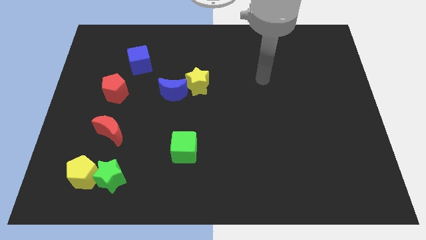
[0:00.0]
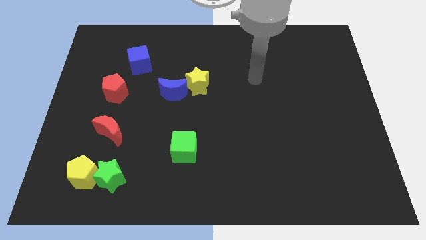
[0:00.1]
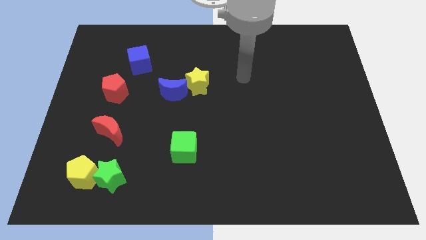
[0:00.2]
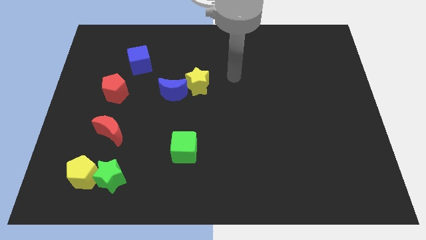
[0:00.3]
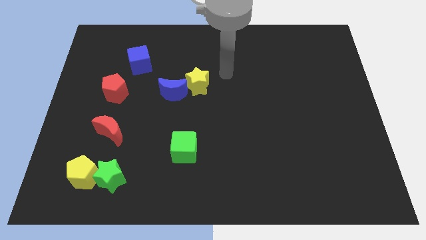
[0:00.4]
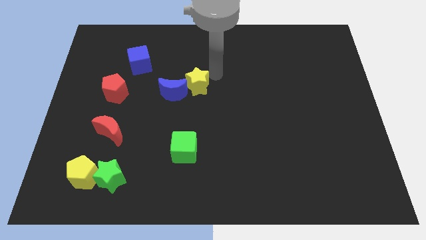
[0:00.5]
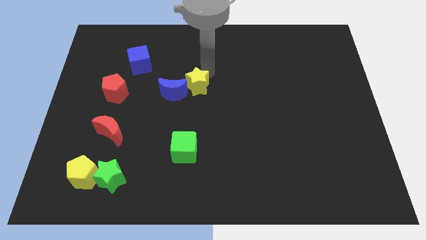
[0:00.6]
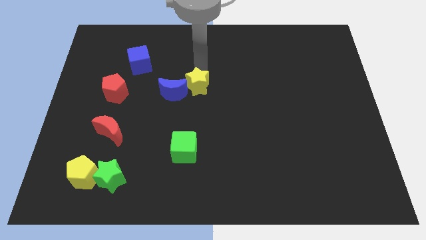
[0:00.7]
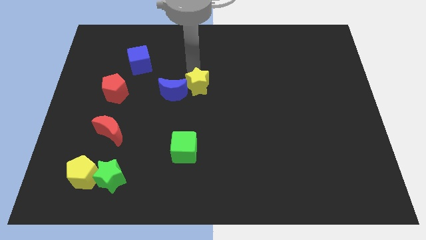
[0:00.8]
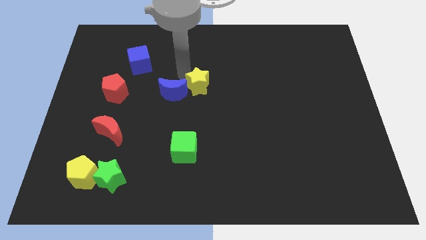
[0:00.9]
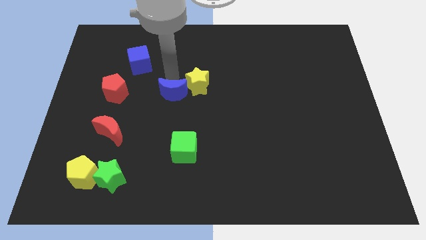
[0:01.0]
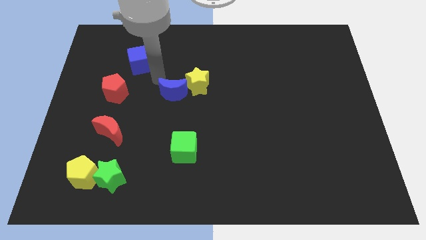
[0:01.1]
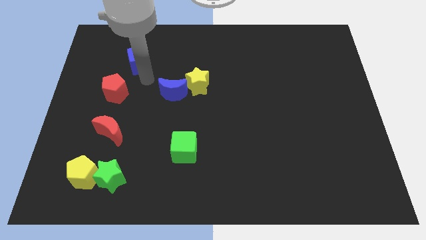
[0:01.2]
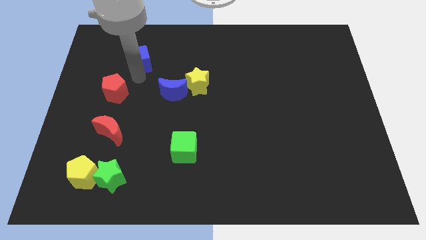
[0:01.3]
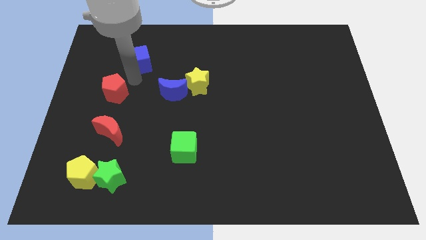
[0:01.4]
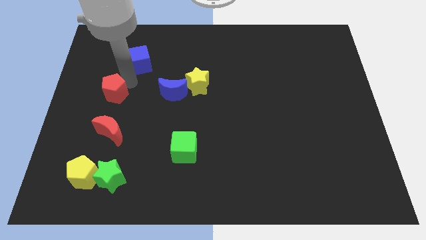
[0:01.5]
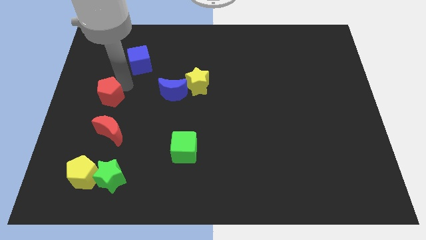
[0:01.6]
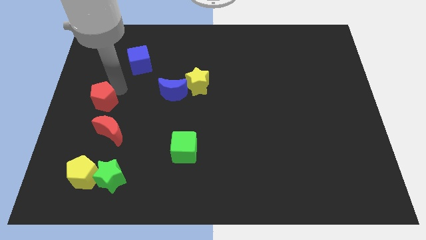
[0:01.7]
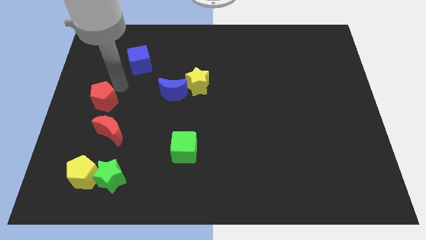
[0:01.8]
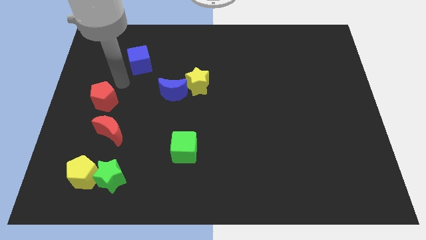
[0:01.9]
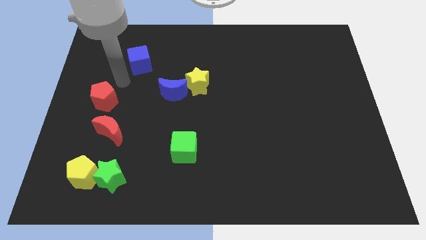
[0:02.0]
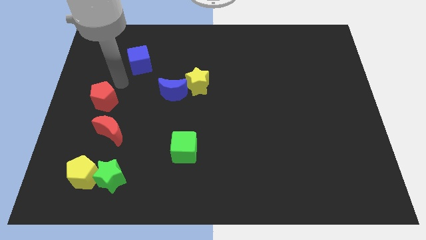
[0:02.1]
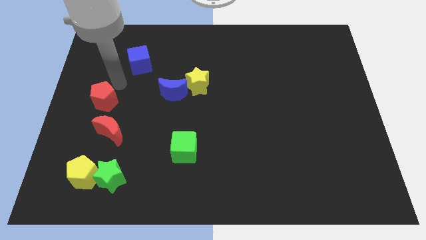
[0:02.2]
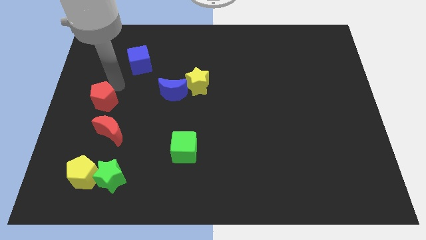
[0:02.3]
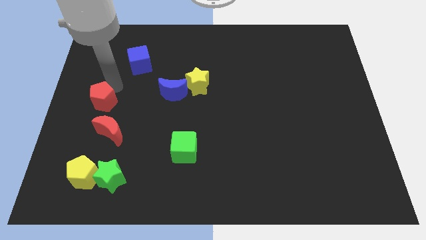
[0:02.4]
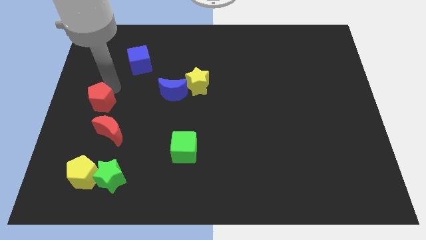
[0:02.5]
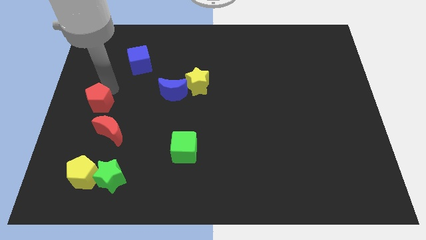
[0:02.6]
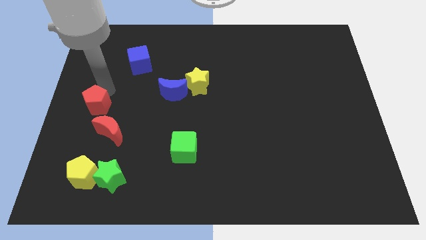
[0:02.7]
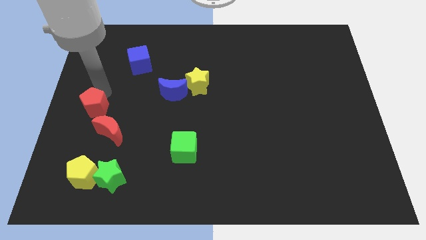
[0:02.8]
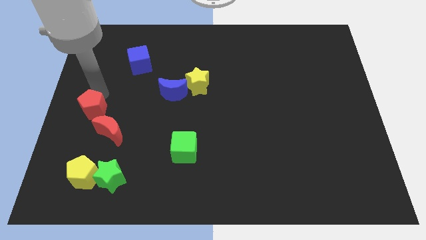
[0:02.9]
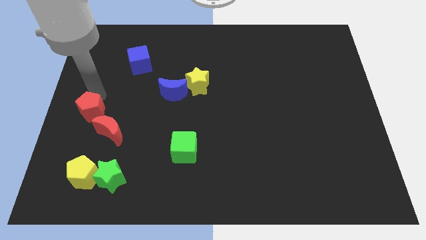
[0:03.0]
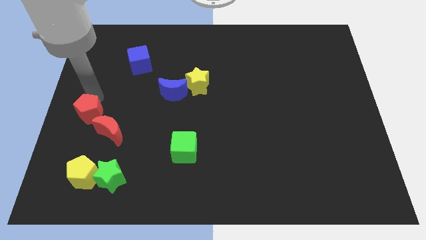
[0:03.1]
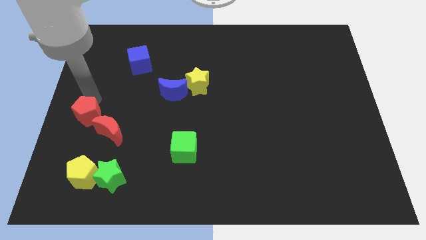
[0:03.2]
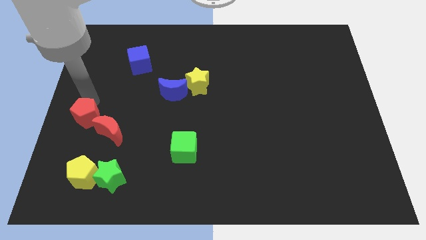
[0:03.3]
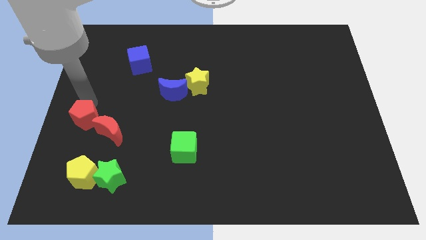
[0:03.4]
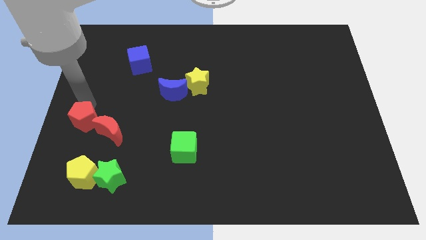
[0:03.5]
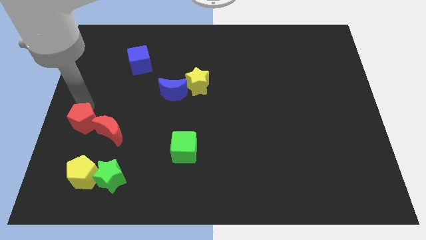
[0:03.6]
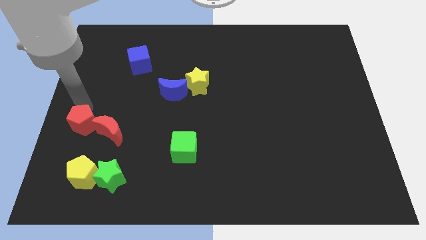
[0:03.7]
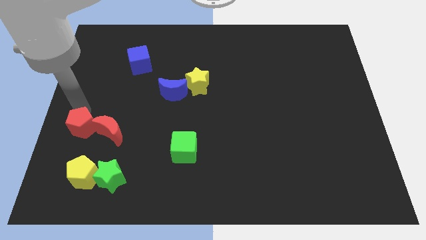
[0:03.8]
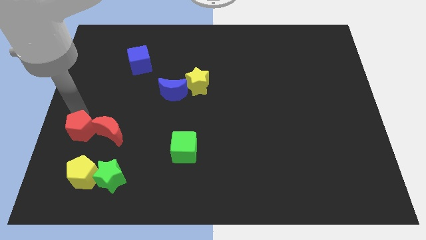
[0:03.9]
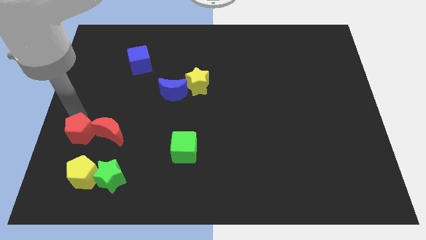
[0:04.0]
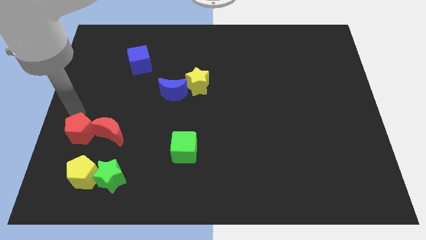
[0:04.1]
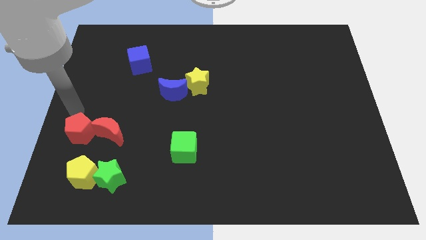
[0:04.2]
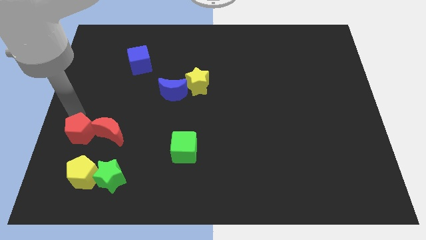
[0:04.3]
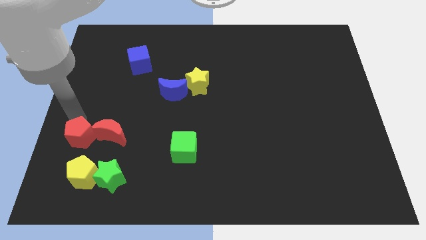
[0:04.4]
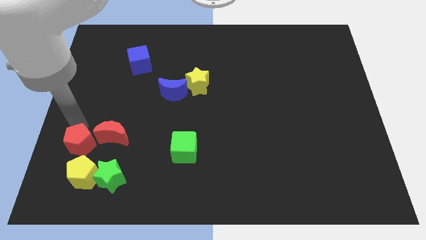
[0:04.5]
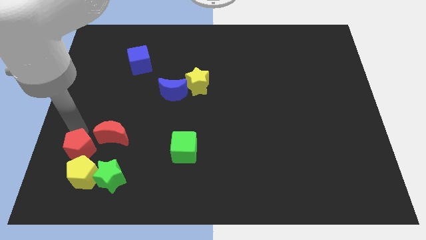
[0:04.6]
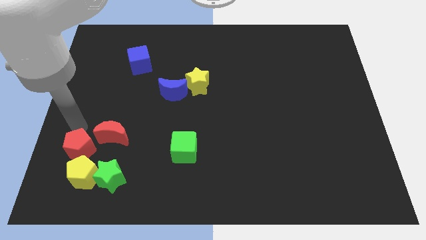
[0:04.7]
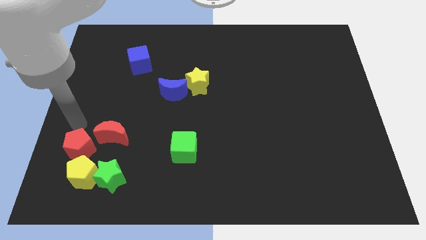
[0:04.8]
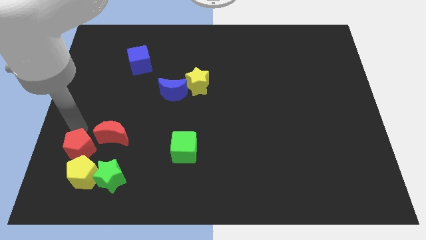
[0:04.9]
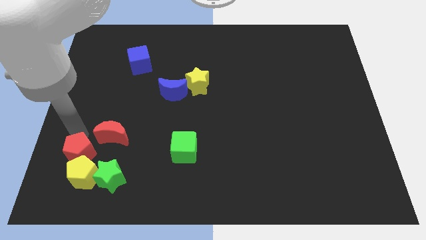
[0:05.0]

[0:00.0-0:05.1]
push the red pentagon to the yellow pentagon

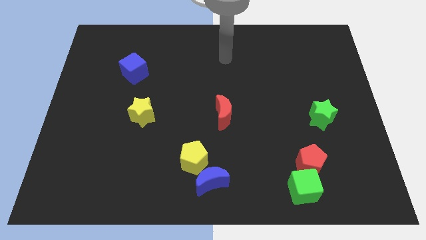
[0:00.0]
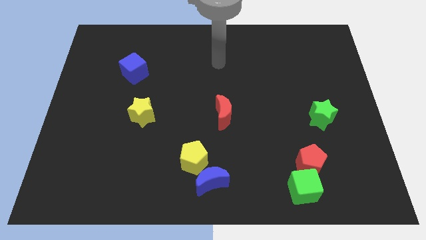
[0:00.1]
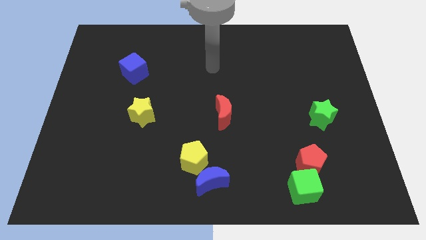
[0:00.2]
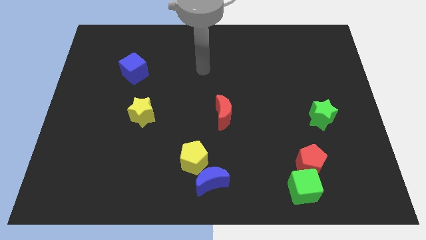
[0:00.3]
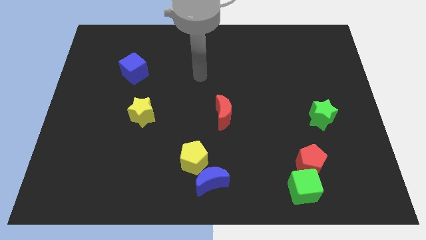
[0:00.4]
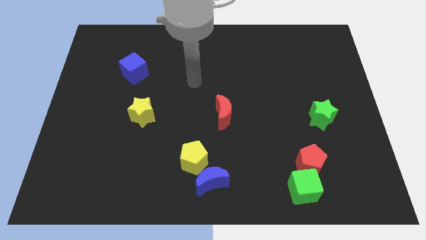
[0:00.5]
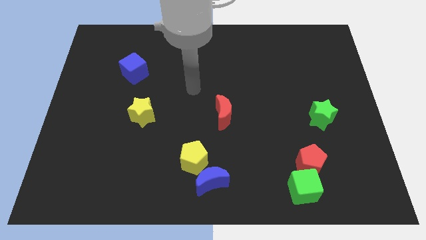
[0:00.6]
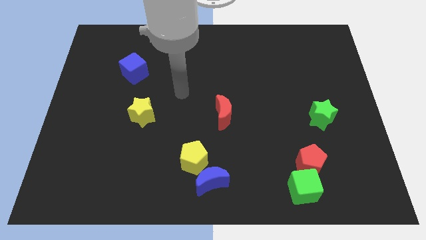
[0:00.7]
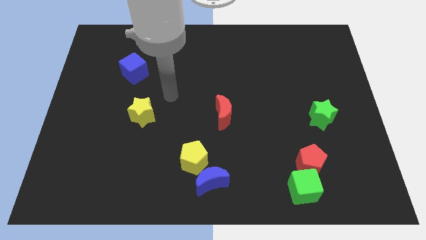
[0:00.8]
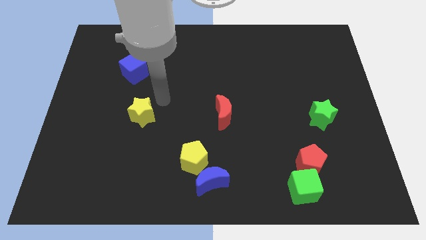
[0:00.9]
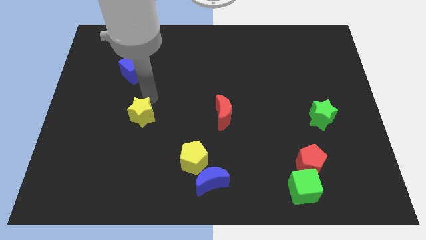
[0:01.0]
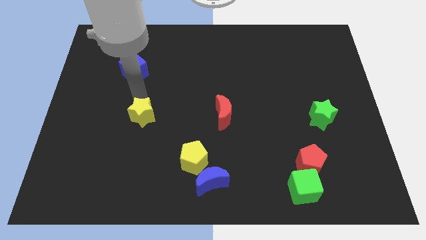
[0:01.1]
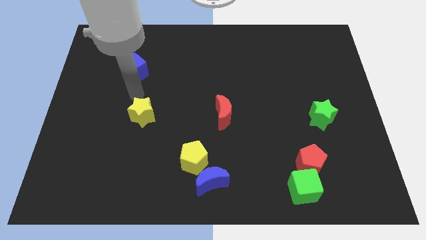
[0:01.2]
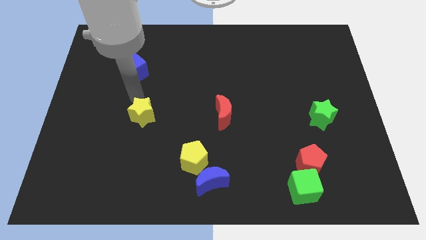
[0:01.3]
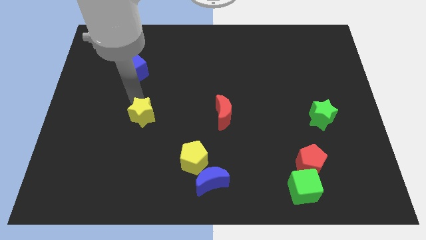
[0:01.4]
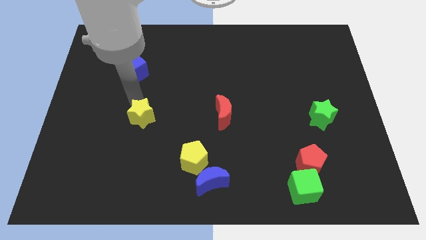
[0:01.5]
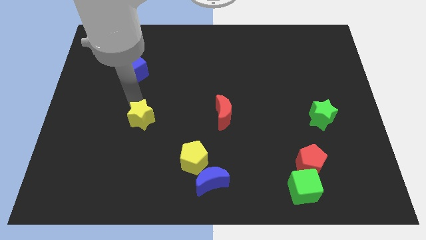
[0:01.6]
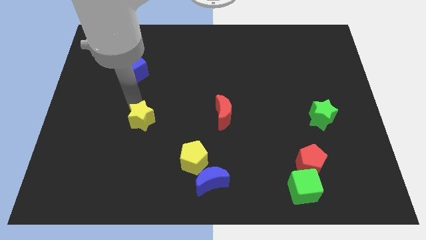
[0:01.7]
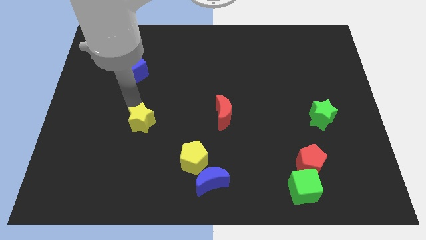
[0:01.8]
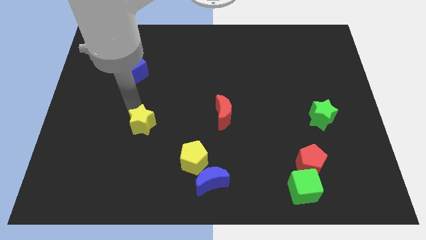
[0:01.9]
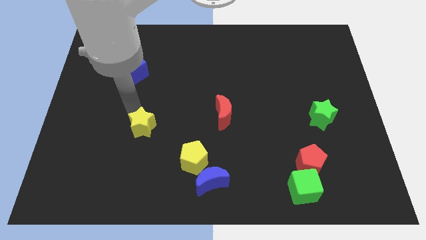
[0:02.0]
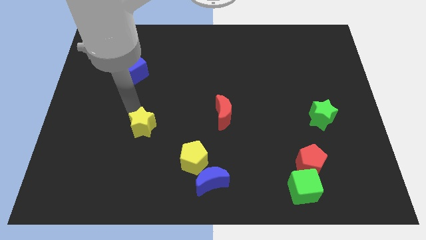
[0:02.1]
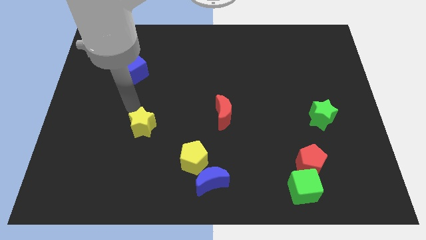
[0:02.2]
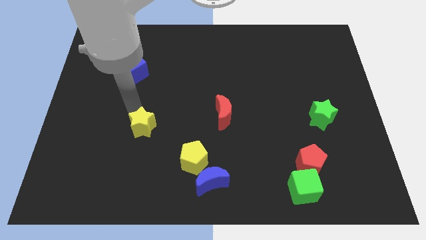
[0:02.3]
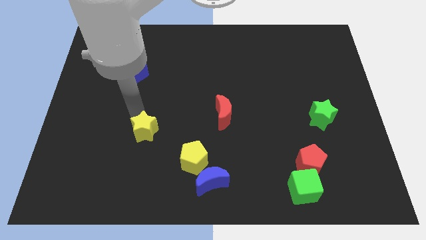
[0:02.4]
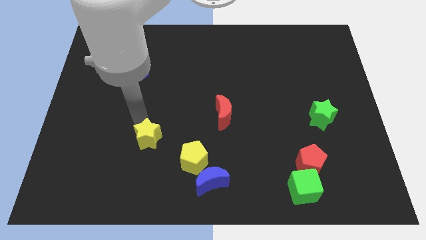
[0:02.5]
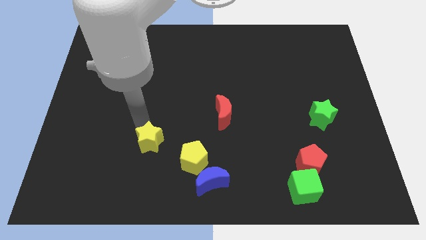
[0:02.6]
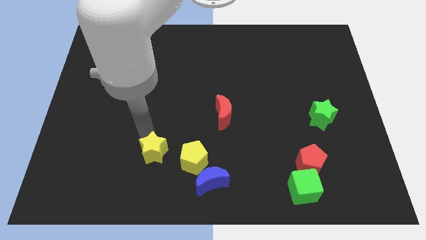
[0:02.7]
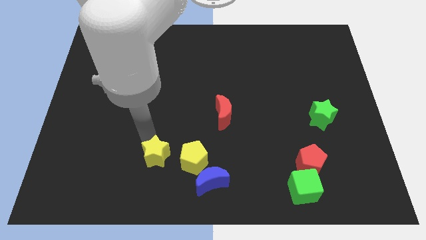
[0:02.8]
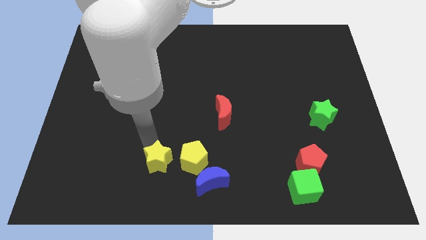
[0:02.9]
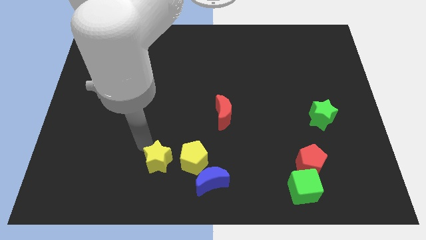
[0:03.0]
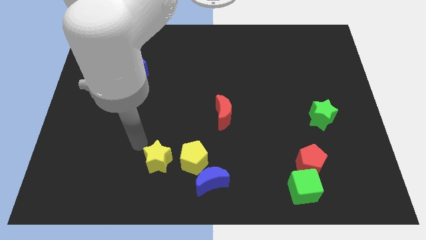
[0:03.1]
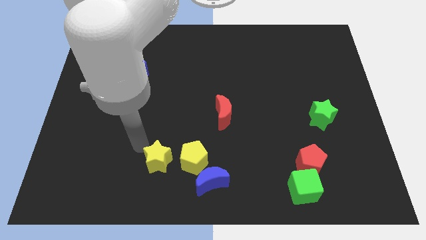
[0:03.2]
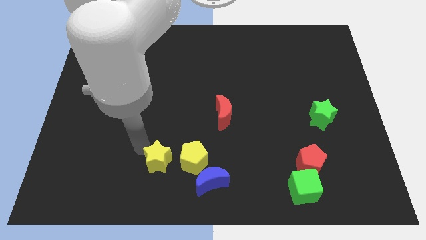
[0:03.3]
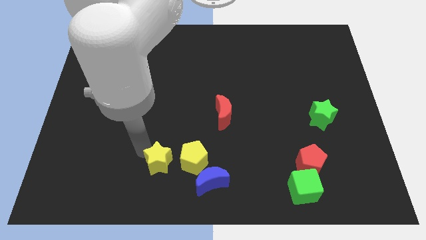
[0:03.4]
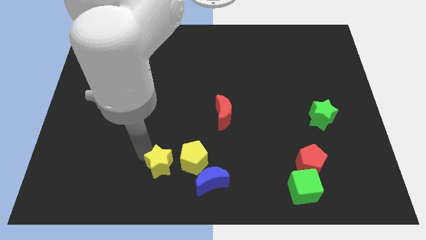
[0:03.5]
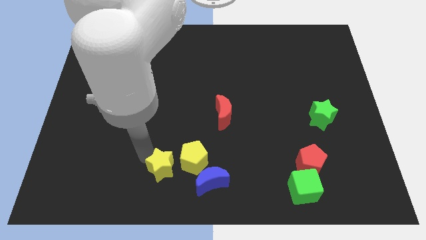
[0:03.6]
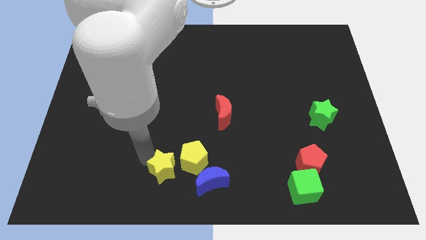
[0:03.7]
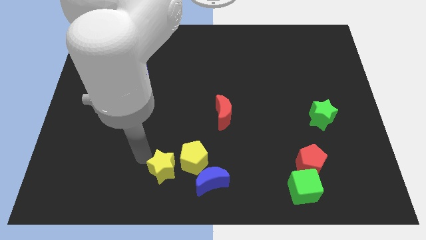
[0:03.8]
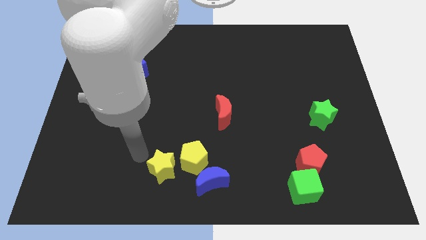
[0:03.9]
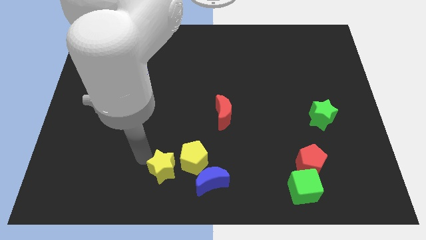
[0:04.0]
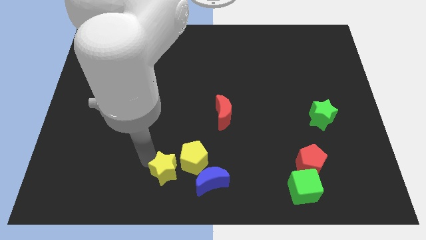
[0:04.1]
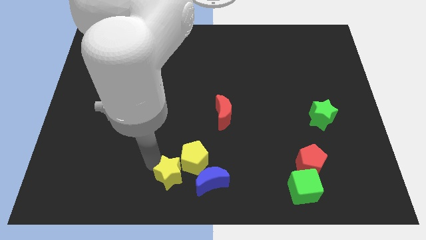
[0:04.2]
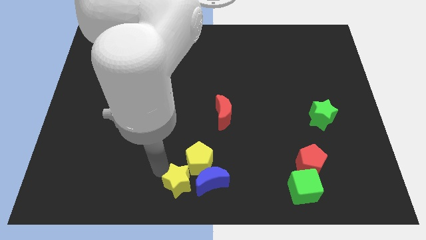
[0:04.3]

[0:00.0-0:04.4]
slide the yellow star to the blue moon
